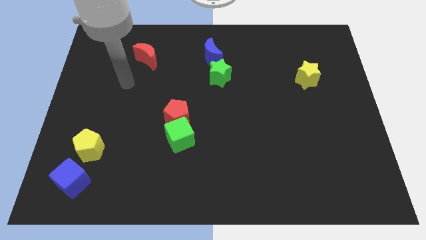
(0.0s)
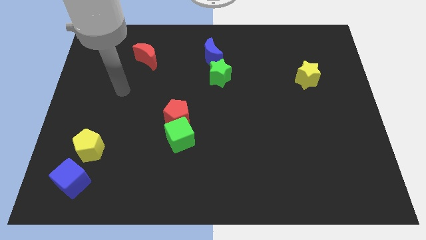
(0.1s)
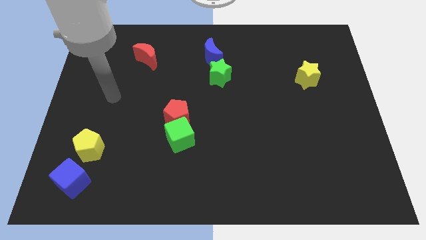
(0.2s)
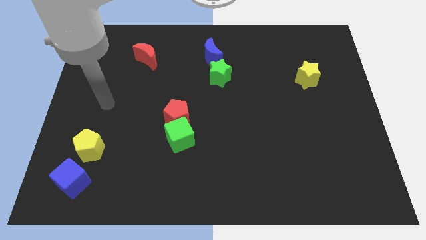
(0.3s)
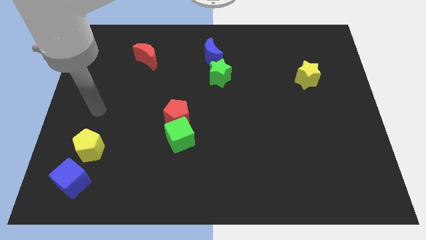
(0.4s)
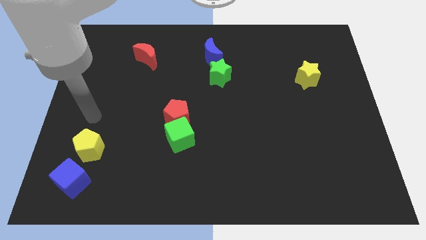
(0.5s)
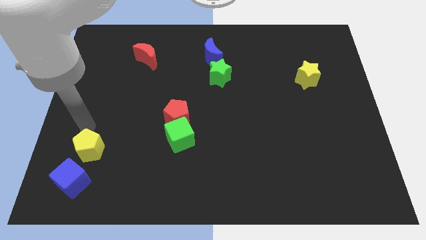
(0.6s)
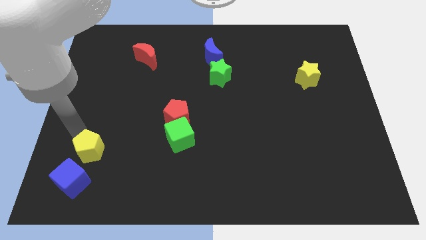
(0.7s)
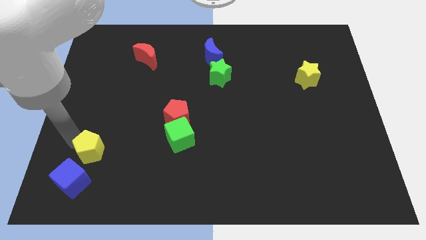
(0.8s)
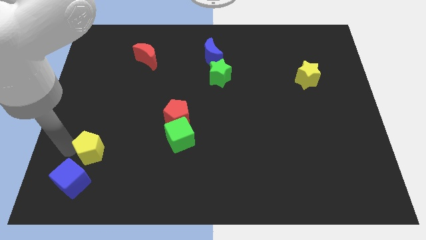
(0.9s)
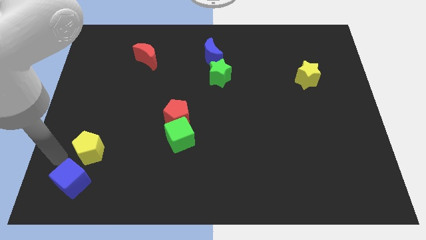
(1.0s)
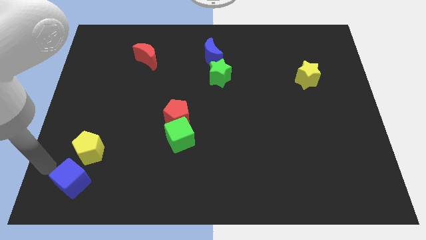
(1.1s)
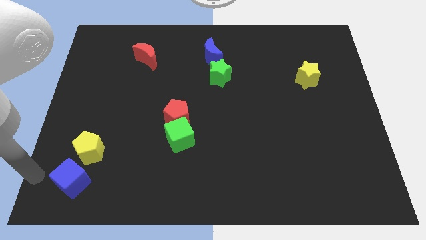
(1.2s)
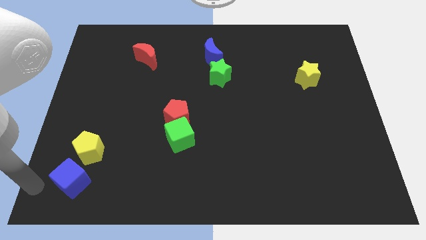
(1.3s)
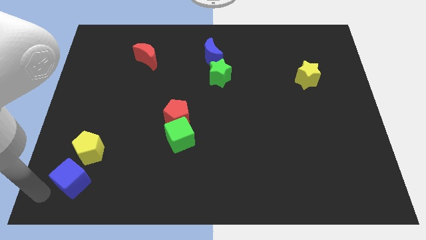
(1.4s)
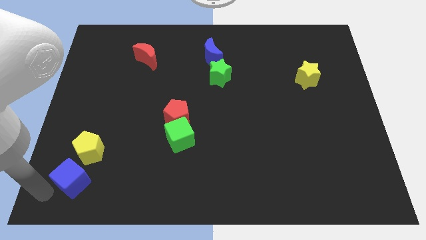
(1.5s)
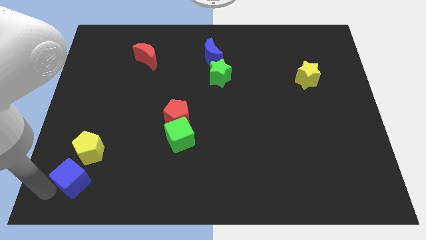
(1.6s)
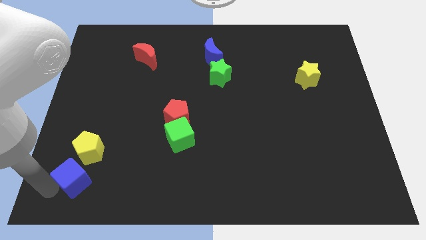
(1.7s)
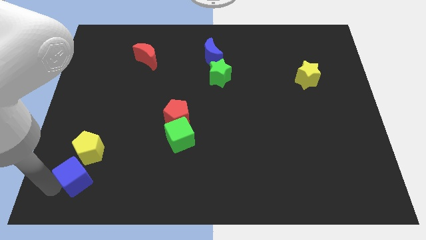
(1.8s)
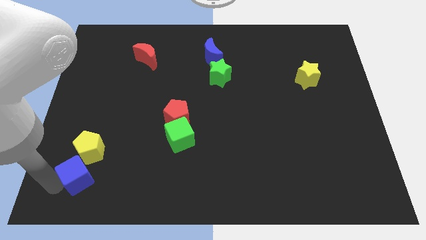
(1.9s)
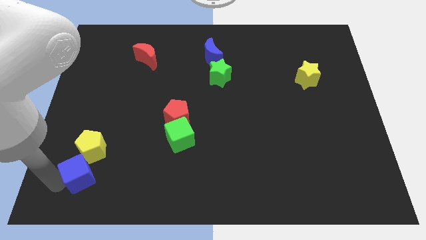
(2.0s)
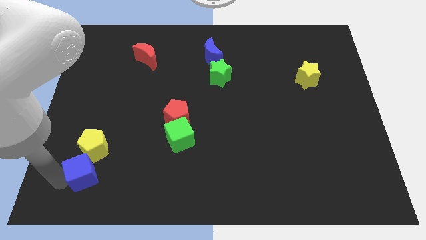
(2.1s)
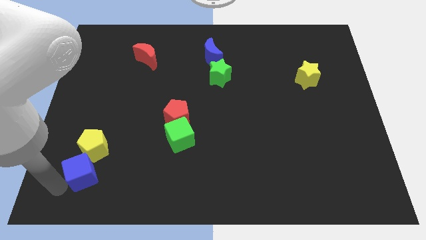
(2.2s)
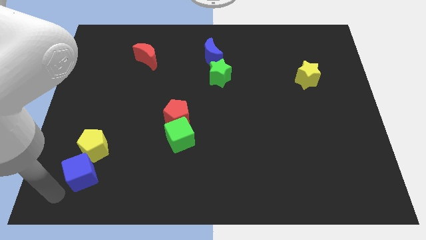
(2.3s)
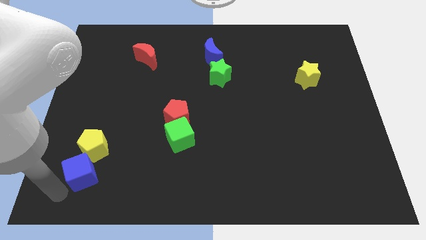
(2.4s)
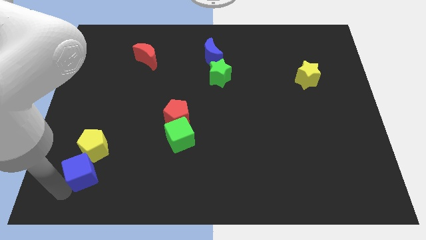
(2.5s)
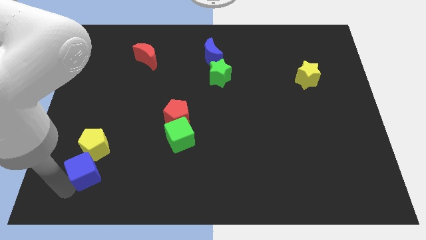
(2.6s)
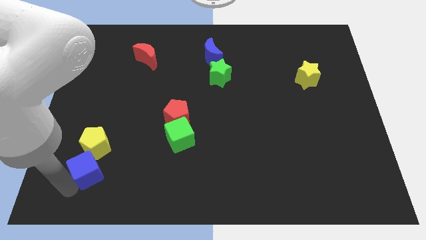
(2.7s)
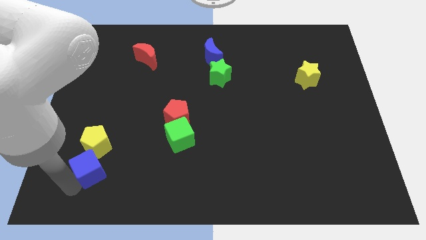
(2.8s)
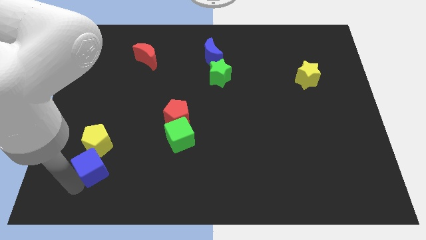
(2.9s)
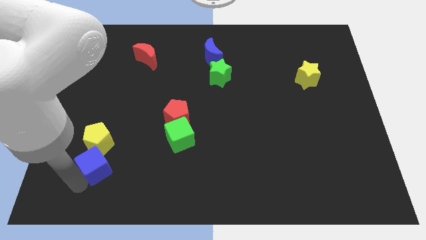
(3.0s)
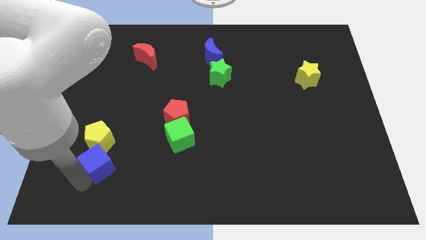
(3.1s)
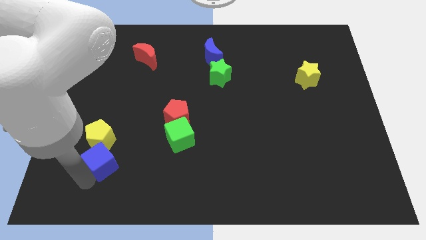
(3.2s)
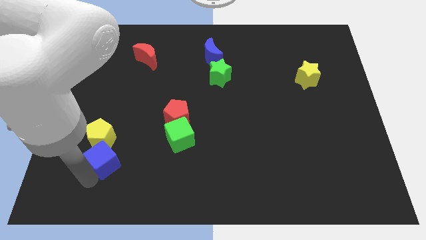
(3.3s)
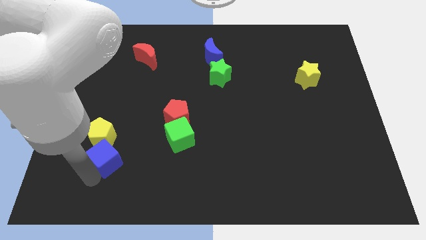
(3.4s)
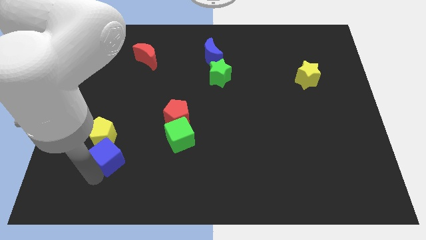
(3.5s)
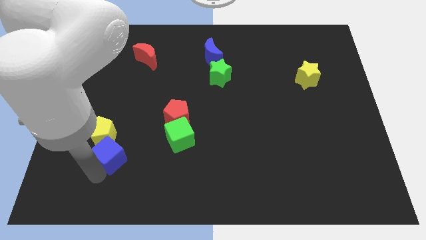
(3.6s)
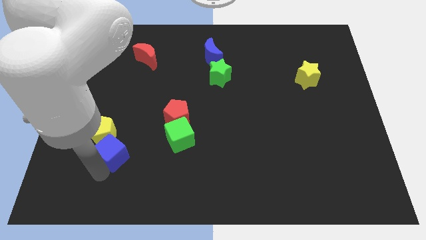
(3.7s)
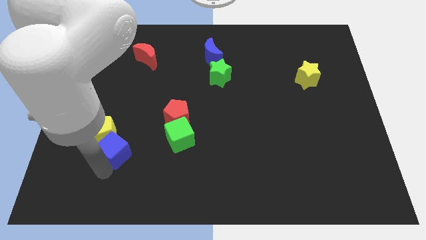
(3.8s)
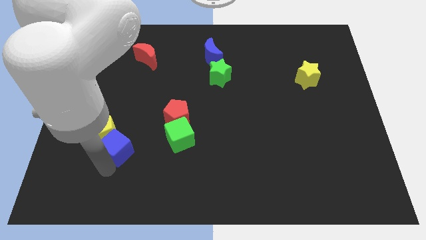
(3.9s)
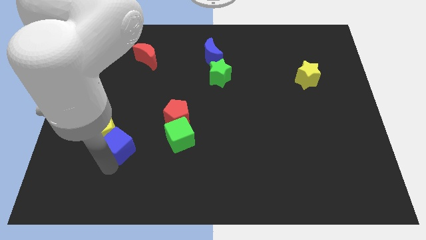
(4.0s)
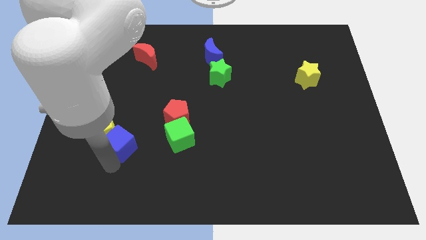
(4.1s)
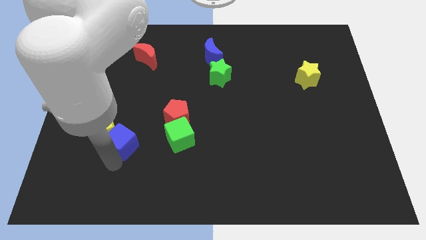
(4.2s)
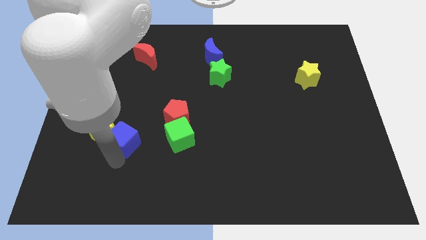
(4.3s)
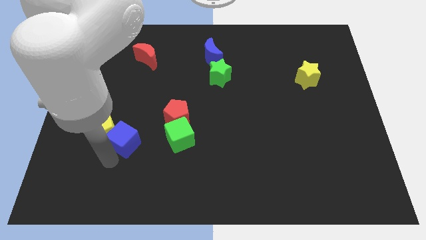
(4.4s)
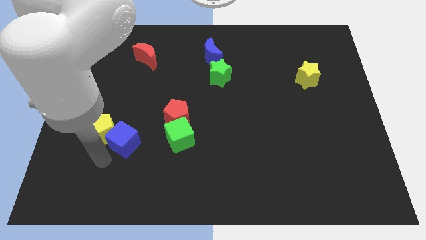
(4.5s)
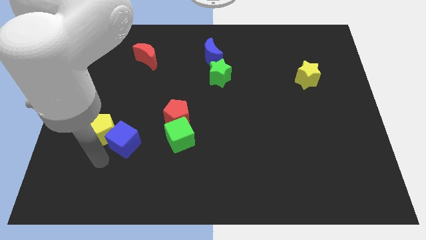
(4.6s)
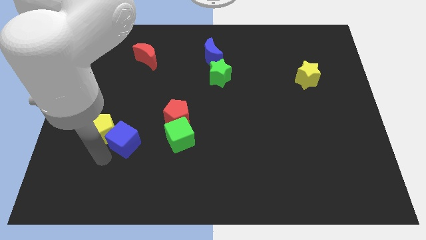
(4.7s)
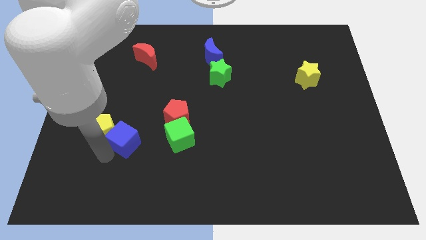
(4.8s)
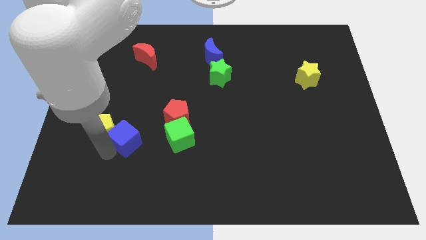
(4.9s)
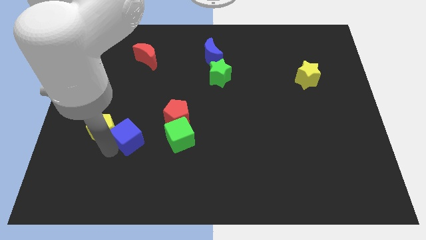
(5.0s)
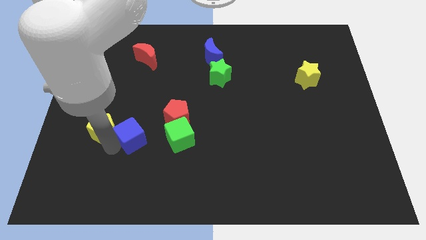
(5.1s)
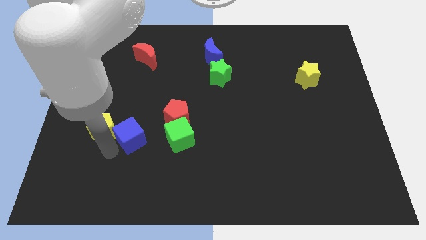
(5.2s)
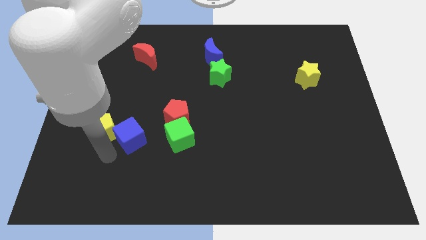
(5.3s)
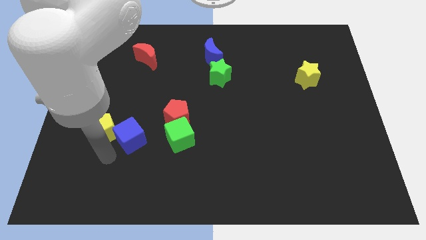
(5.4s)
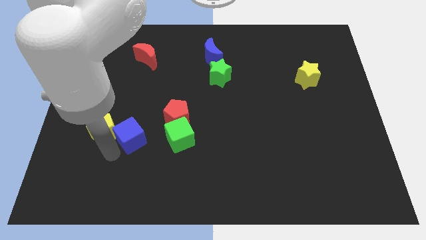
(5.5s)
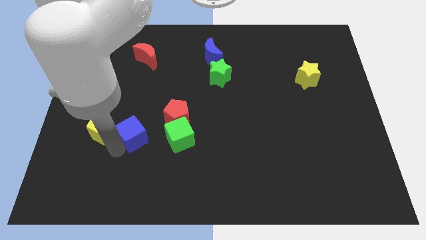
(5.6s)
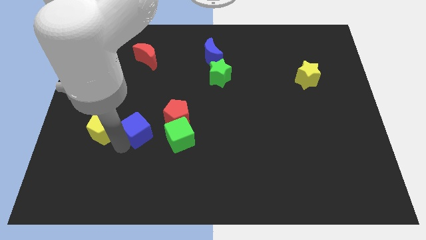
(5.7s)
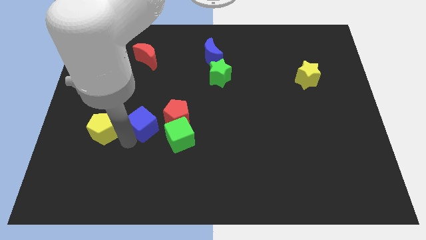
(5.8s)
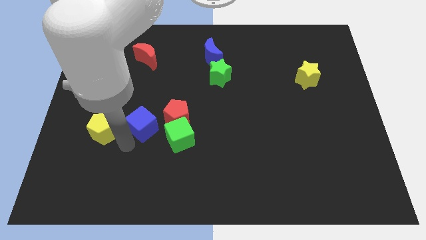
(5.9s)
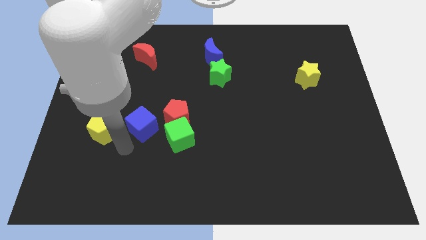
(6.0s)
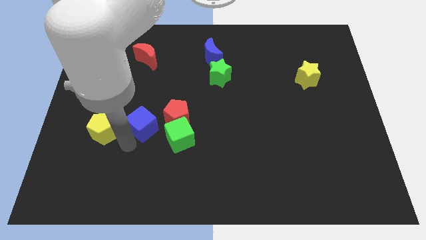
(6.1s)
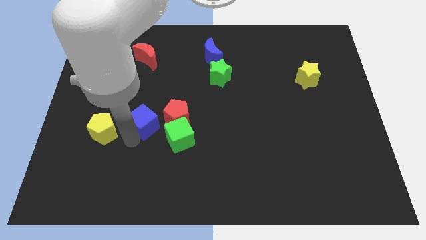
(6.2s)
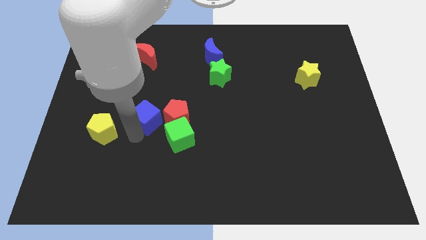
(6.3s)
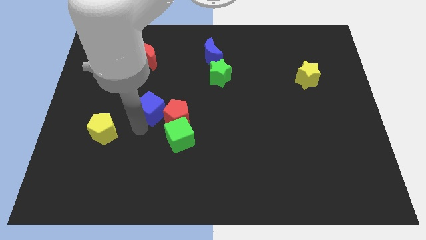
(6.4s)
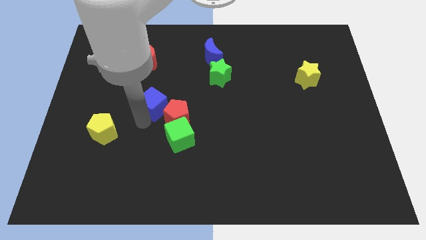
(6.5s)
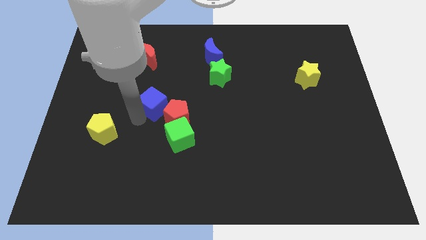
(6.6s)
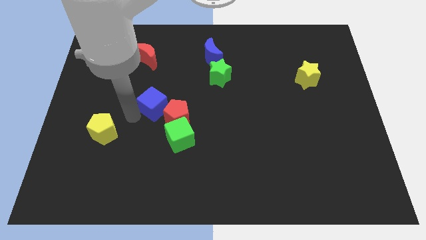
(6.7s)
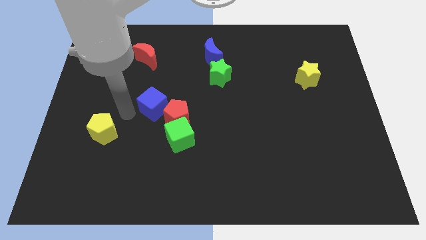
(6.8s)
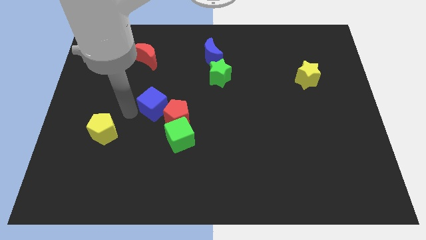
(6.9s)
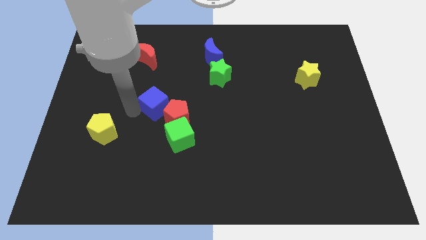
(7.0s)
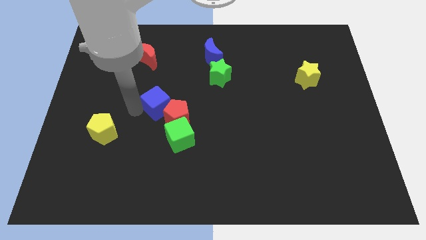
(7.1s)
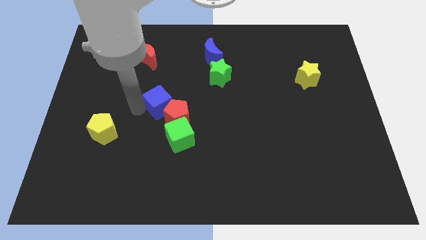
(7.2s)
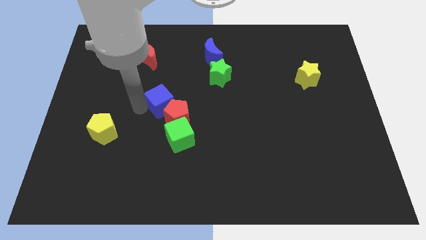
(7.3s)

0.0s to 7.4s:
move the blue cube to the middle

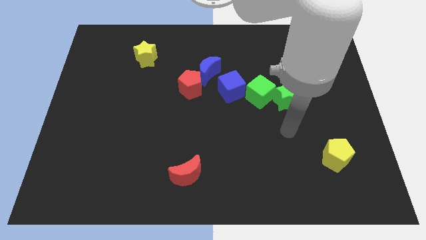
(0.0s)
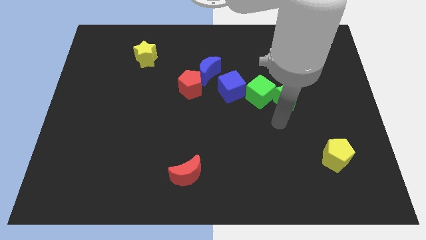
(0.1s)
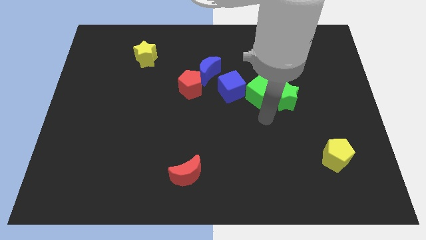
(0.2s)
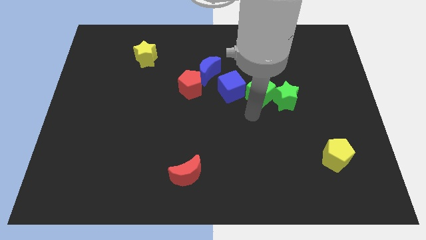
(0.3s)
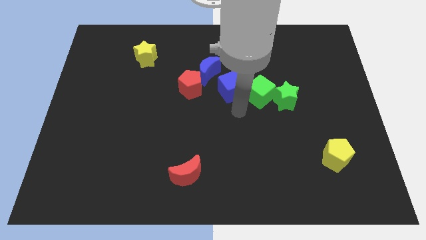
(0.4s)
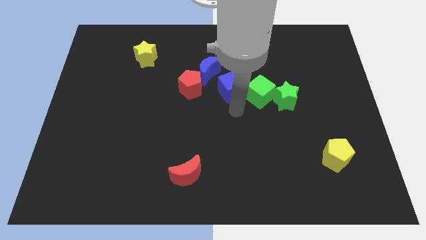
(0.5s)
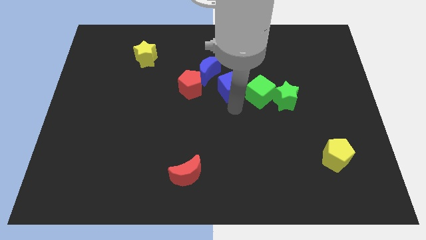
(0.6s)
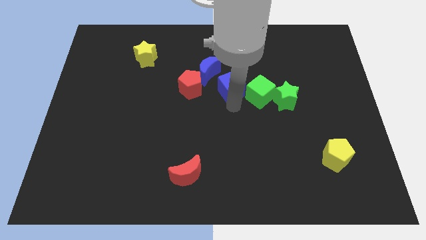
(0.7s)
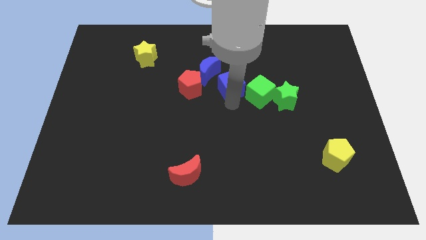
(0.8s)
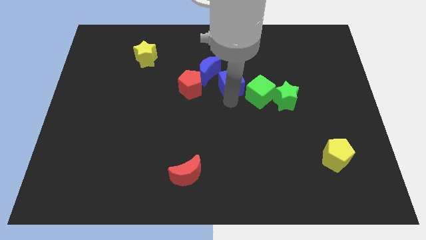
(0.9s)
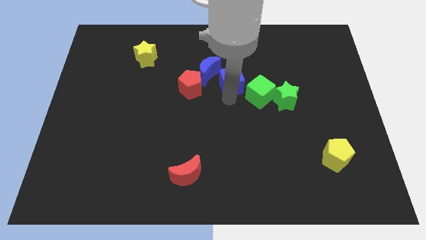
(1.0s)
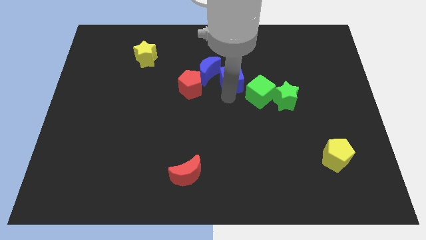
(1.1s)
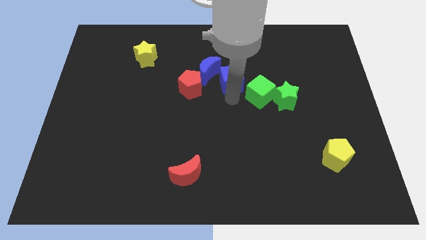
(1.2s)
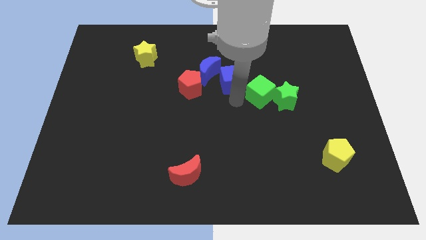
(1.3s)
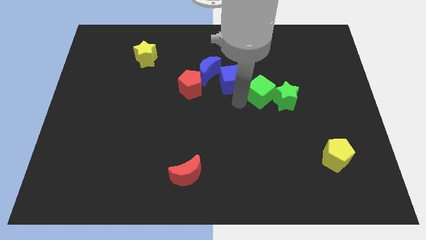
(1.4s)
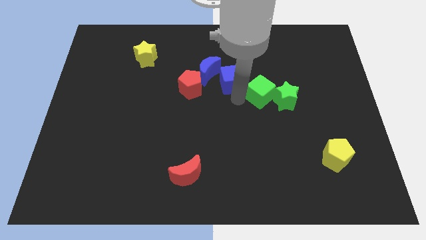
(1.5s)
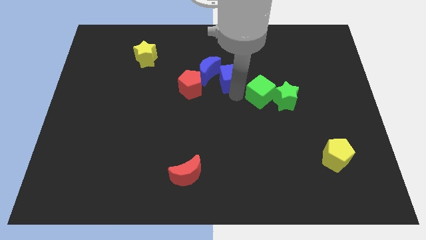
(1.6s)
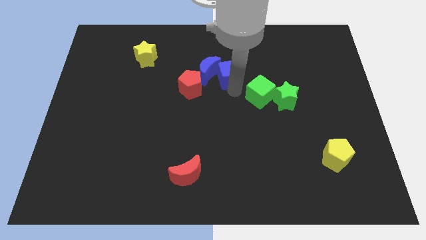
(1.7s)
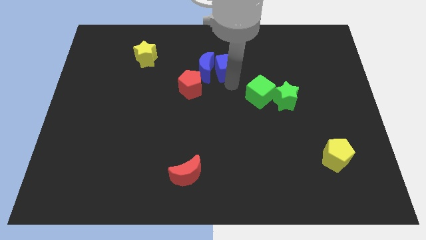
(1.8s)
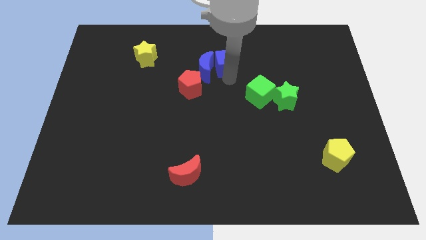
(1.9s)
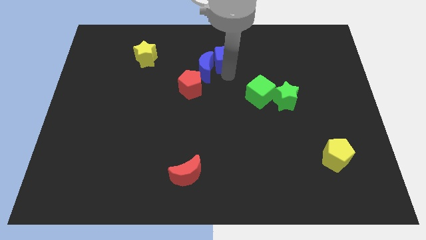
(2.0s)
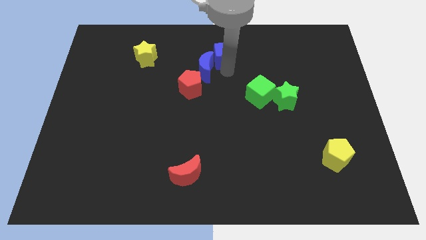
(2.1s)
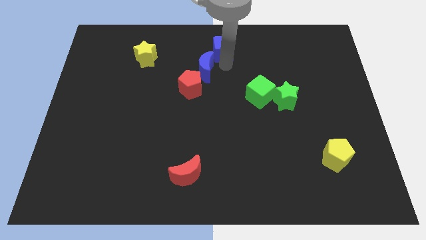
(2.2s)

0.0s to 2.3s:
put the blue cube to the top side
